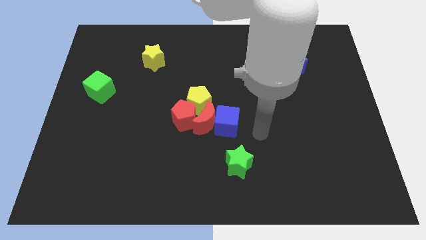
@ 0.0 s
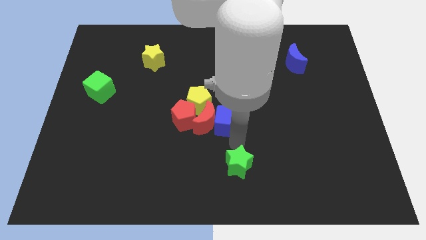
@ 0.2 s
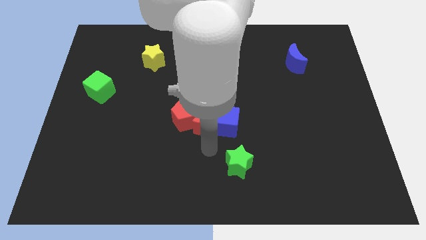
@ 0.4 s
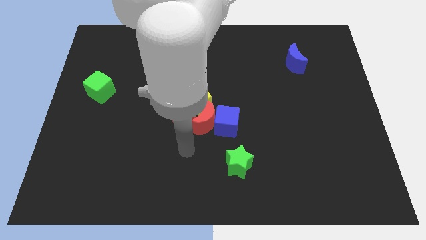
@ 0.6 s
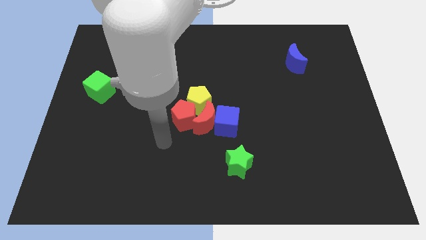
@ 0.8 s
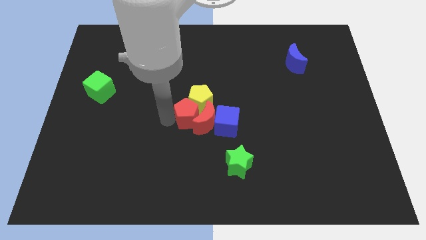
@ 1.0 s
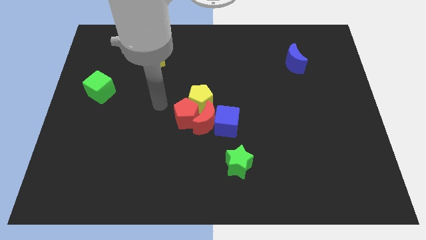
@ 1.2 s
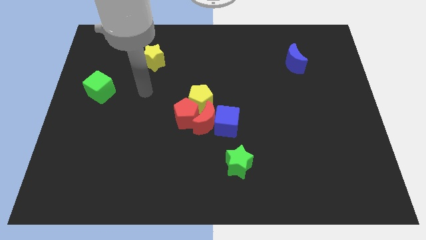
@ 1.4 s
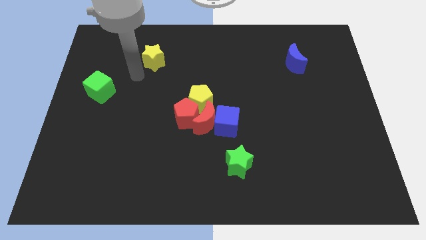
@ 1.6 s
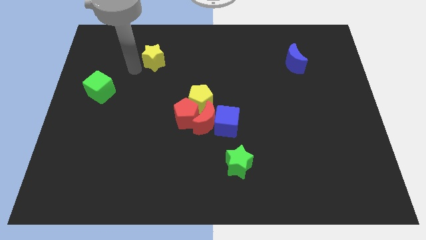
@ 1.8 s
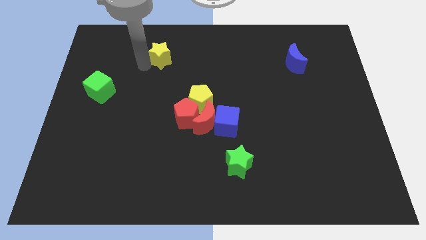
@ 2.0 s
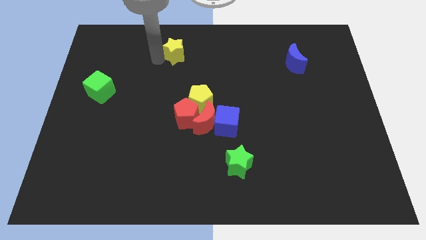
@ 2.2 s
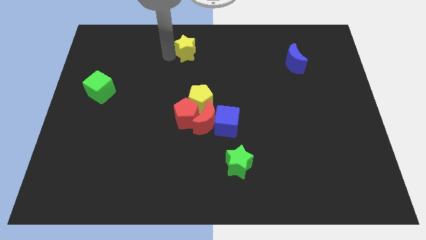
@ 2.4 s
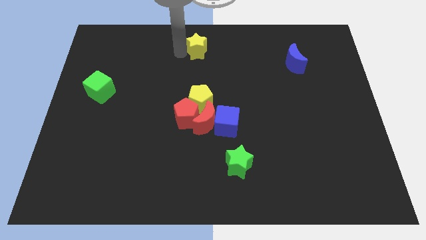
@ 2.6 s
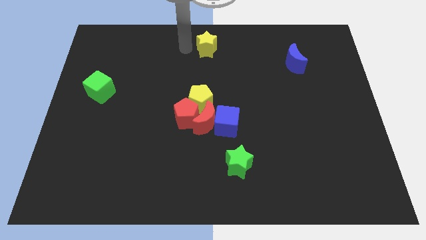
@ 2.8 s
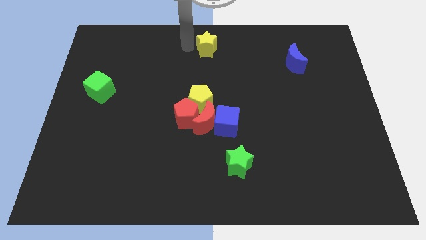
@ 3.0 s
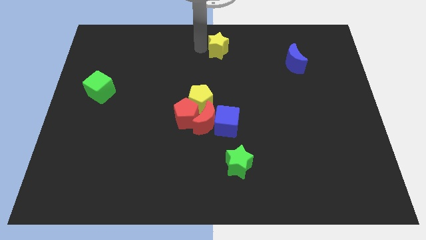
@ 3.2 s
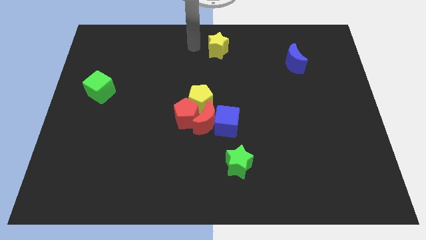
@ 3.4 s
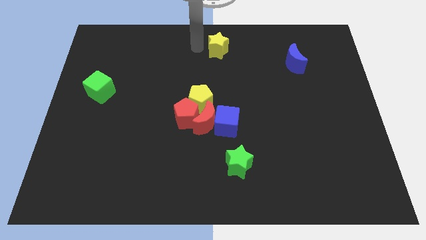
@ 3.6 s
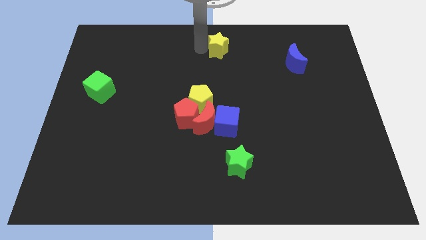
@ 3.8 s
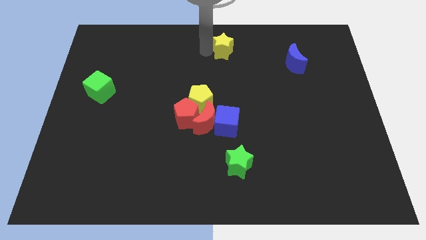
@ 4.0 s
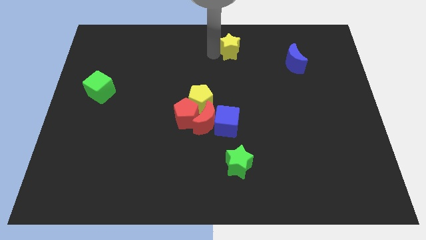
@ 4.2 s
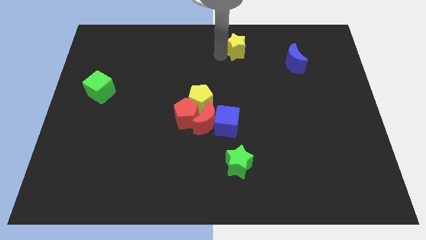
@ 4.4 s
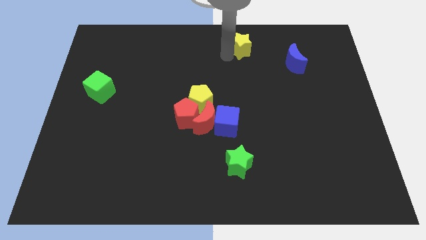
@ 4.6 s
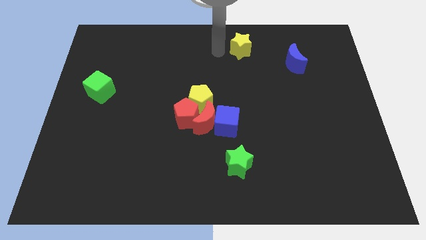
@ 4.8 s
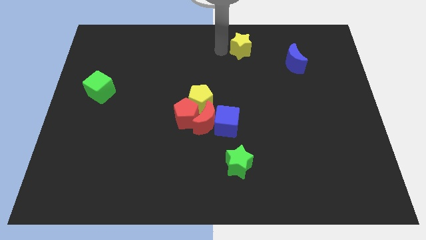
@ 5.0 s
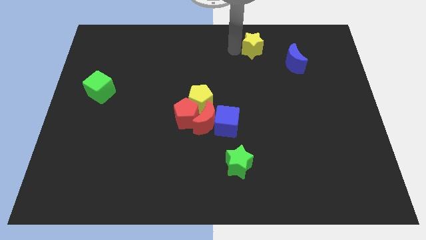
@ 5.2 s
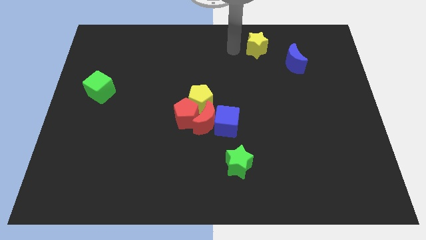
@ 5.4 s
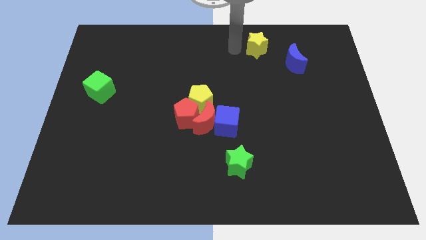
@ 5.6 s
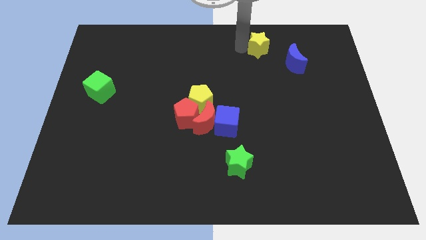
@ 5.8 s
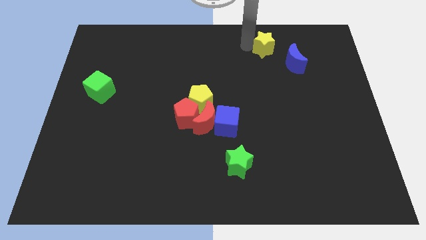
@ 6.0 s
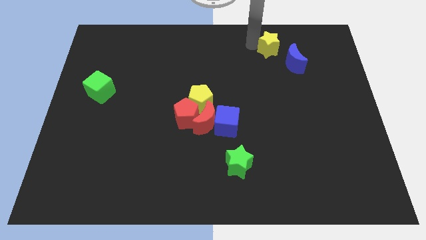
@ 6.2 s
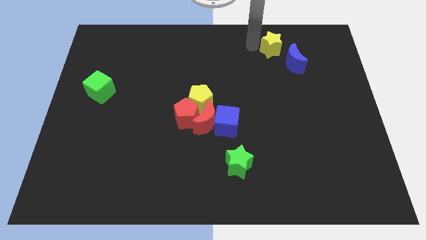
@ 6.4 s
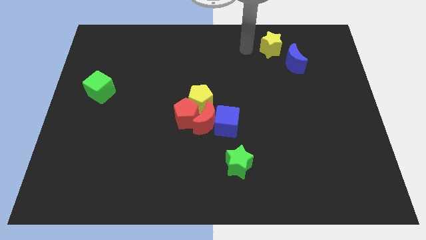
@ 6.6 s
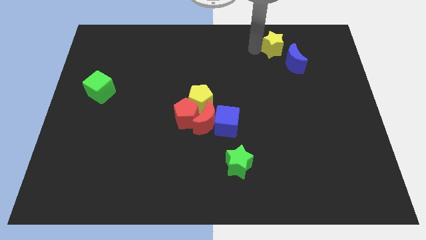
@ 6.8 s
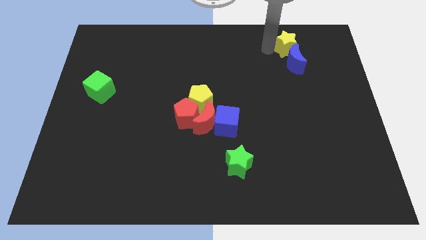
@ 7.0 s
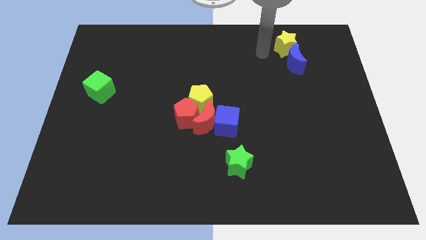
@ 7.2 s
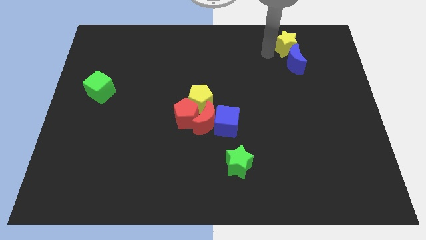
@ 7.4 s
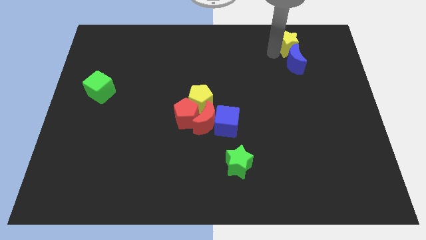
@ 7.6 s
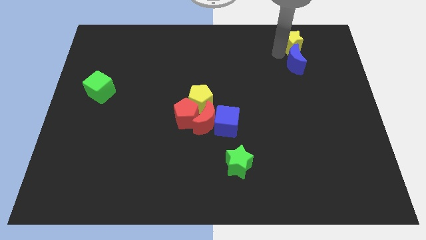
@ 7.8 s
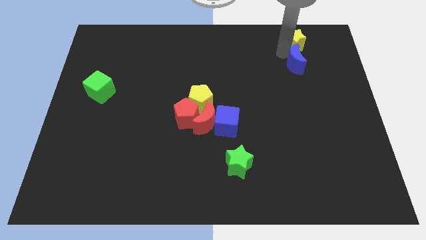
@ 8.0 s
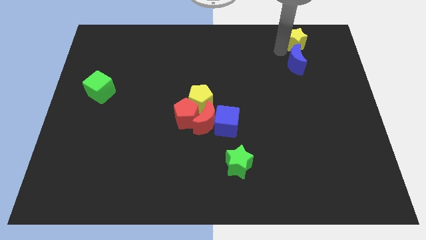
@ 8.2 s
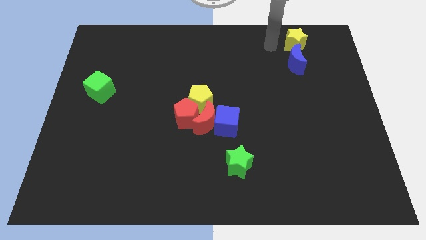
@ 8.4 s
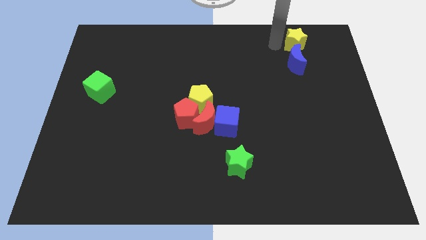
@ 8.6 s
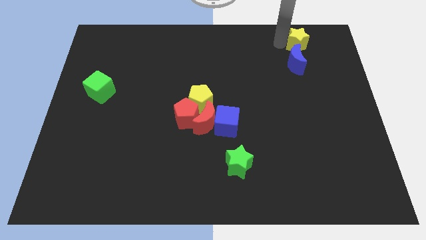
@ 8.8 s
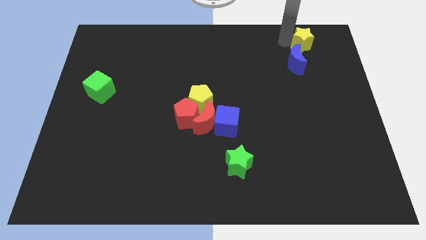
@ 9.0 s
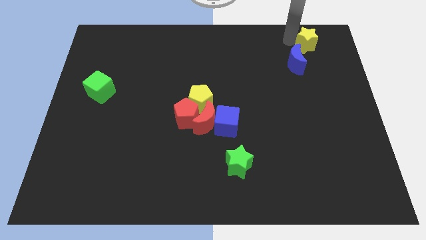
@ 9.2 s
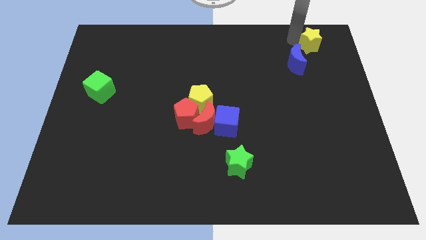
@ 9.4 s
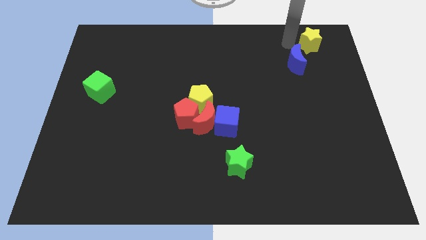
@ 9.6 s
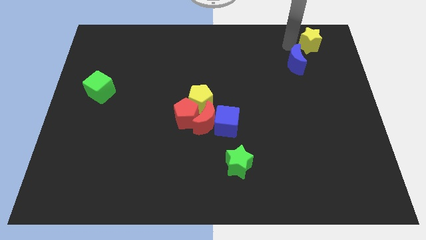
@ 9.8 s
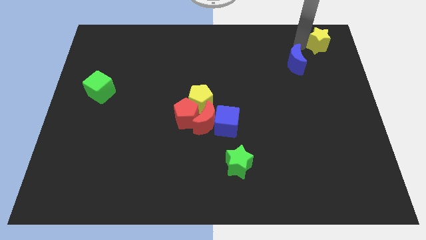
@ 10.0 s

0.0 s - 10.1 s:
put the yellow star to the top right of the board

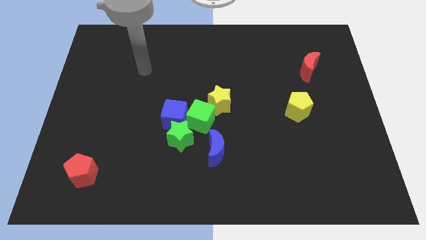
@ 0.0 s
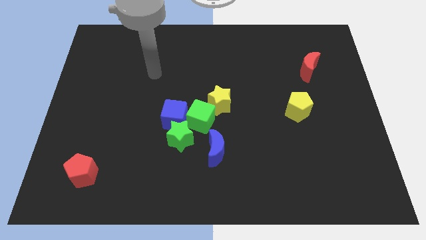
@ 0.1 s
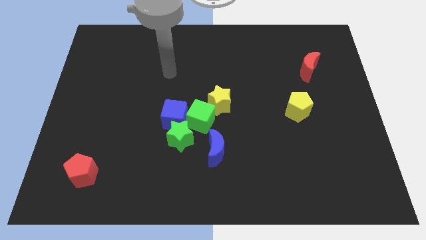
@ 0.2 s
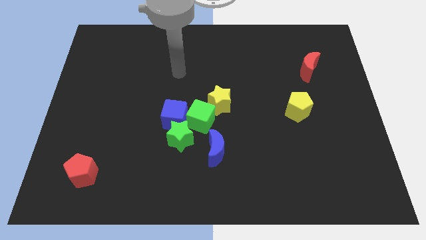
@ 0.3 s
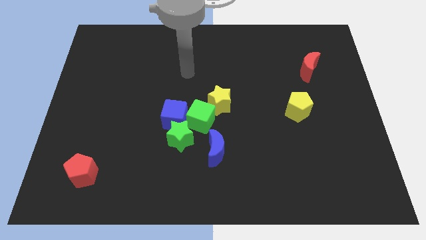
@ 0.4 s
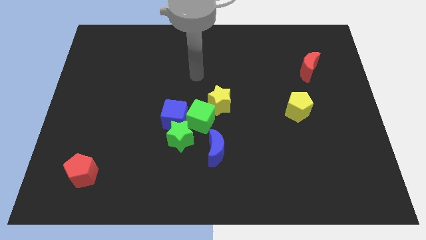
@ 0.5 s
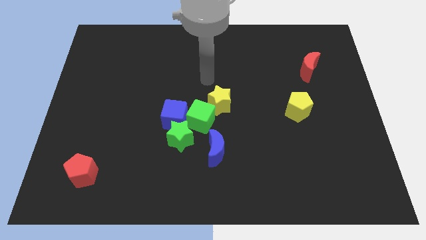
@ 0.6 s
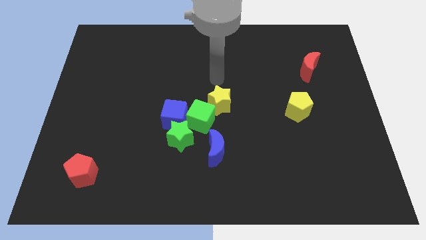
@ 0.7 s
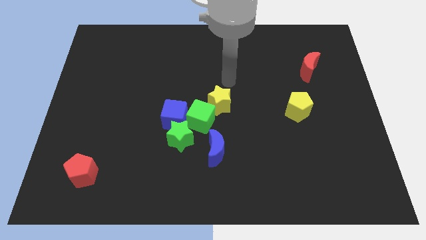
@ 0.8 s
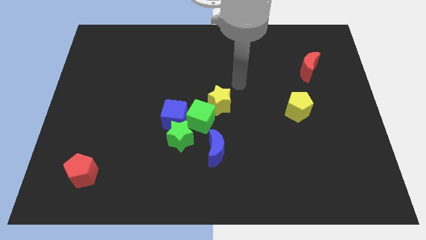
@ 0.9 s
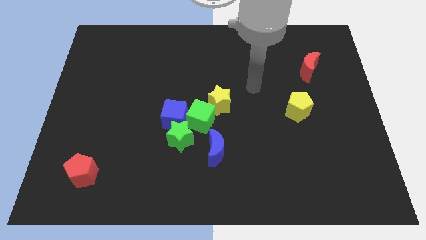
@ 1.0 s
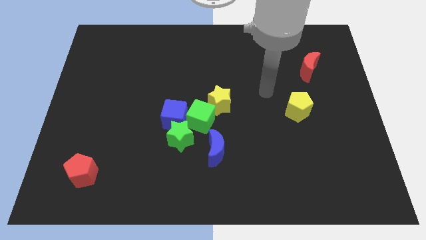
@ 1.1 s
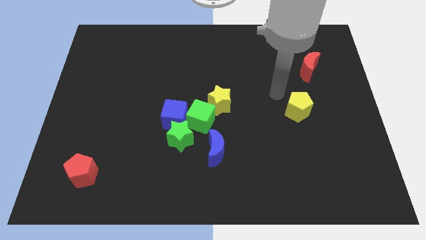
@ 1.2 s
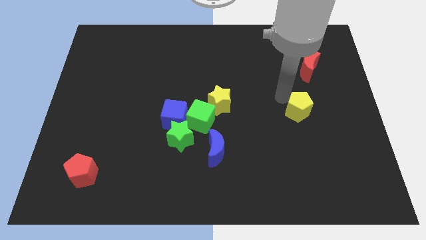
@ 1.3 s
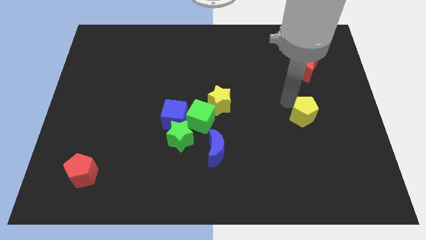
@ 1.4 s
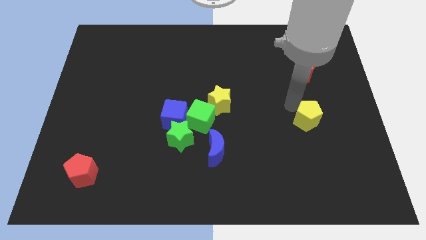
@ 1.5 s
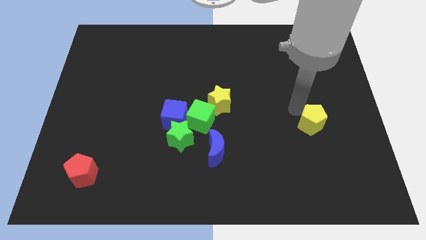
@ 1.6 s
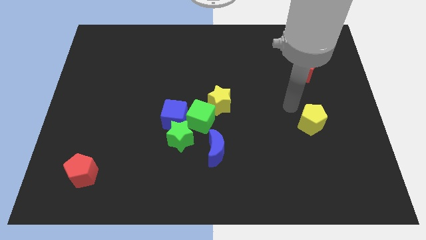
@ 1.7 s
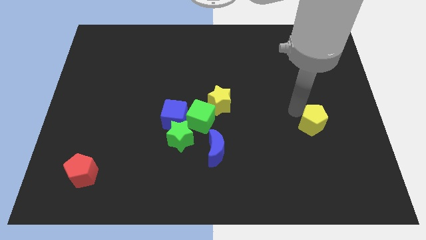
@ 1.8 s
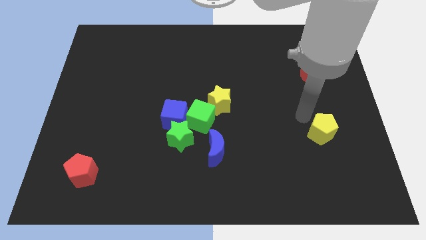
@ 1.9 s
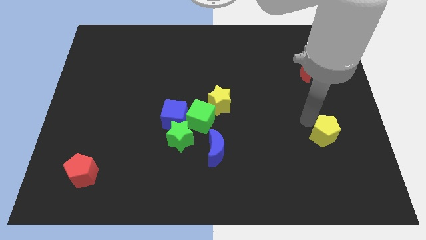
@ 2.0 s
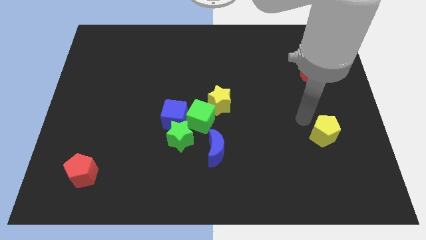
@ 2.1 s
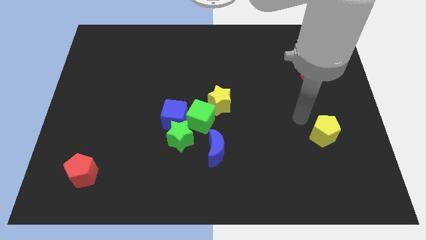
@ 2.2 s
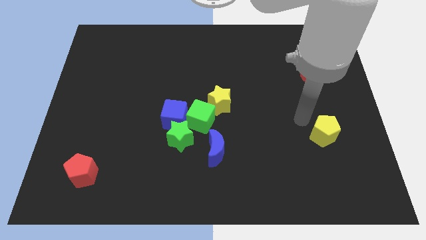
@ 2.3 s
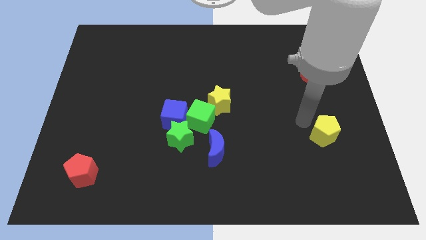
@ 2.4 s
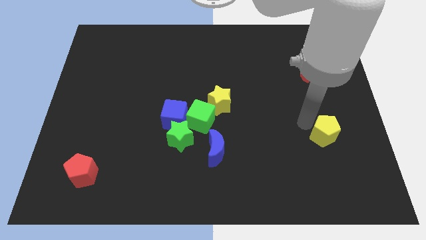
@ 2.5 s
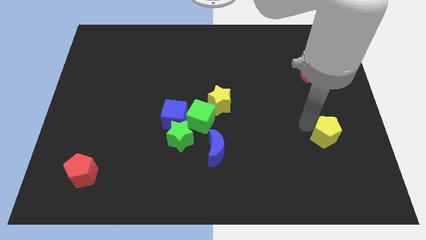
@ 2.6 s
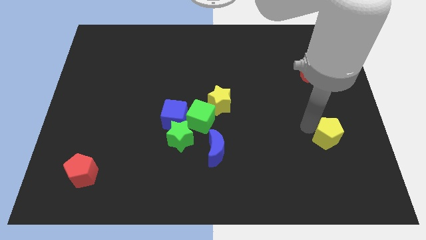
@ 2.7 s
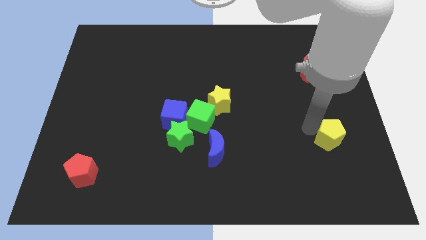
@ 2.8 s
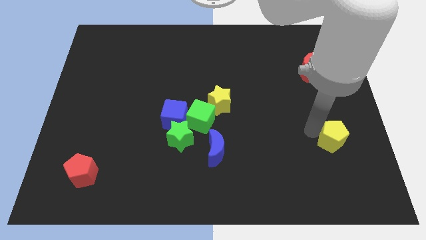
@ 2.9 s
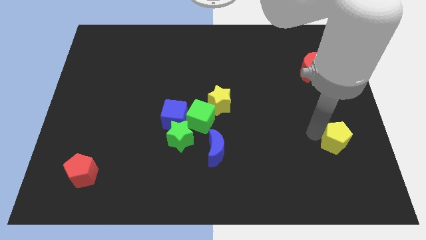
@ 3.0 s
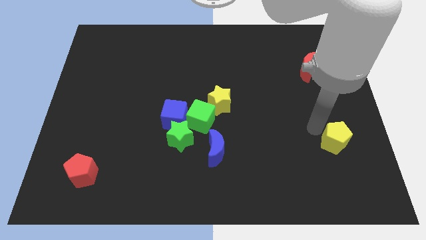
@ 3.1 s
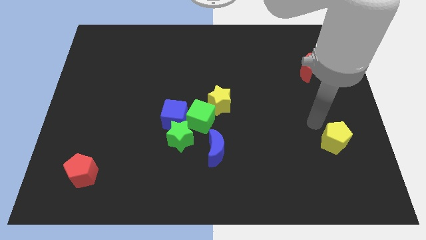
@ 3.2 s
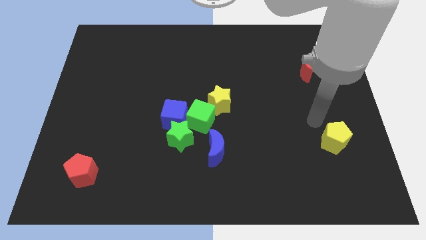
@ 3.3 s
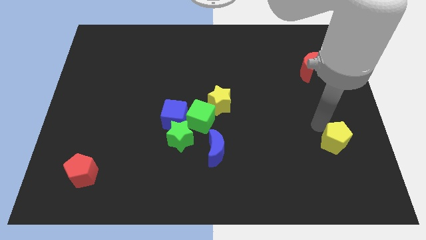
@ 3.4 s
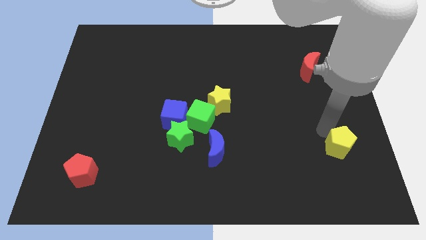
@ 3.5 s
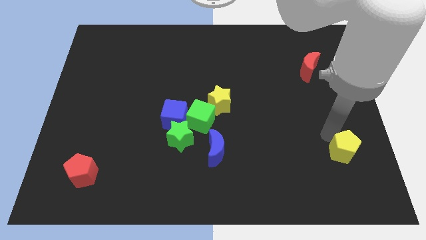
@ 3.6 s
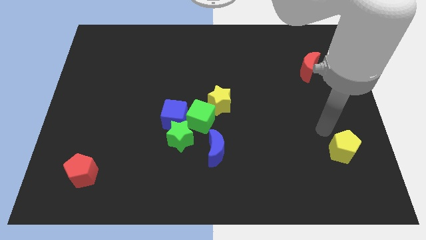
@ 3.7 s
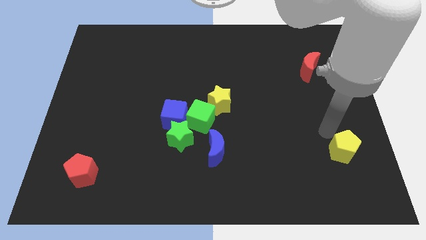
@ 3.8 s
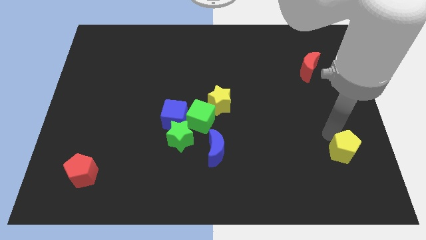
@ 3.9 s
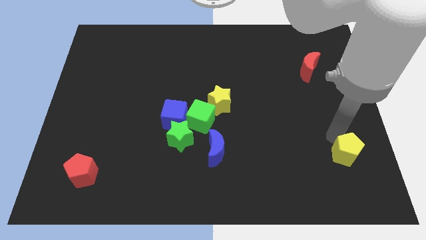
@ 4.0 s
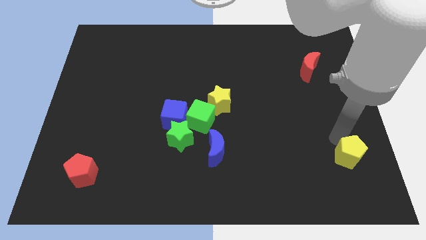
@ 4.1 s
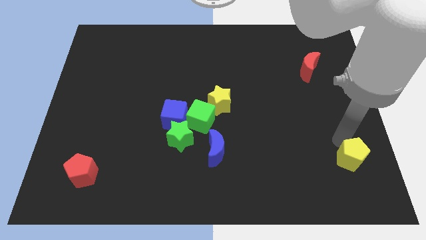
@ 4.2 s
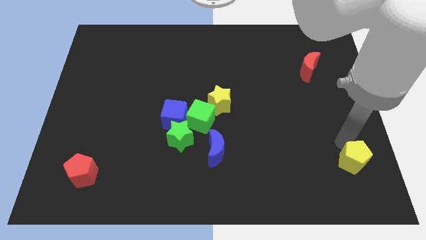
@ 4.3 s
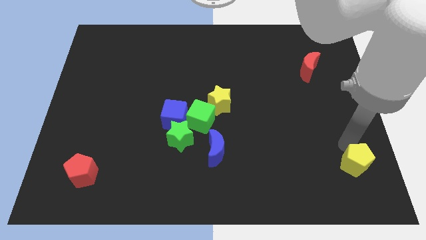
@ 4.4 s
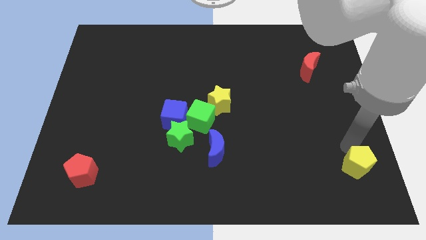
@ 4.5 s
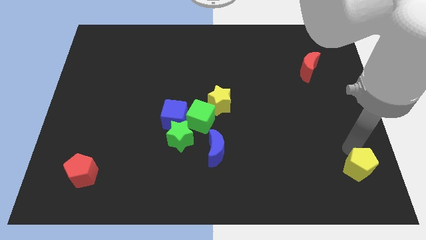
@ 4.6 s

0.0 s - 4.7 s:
push the yellow pentagon to the bottom right corner
